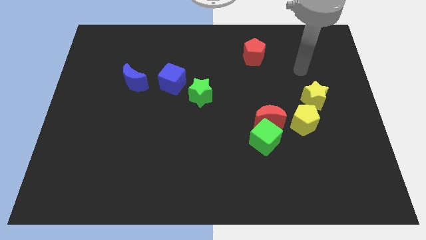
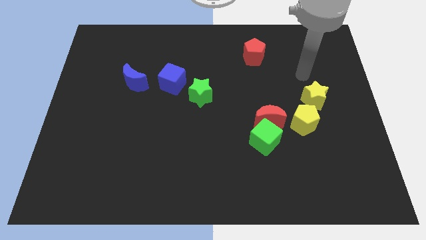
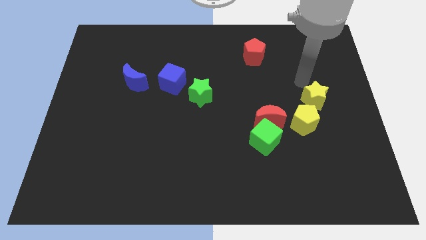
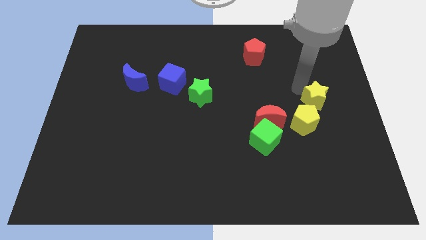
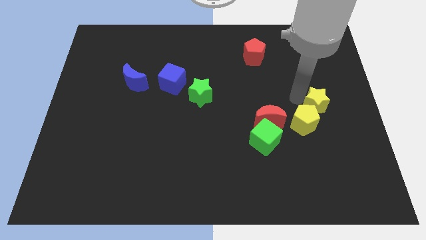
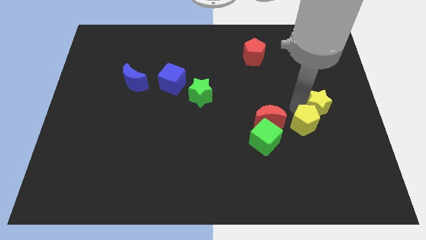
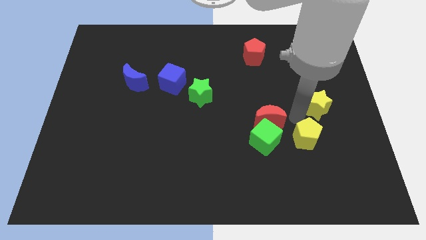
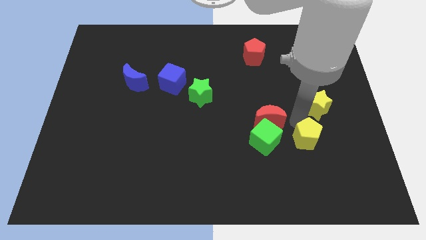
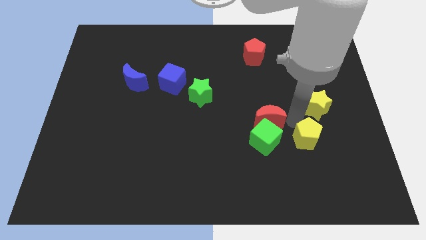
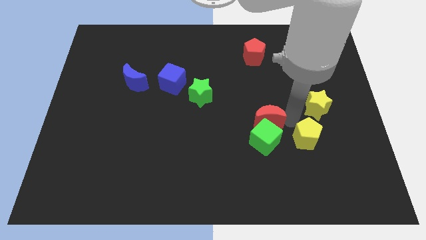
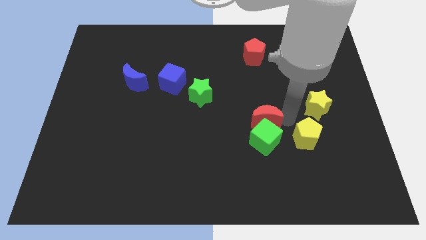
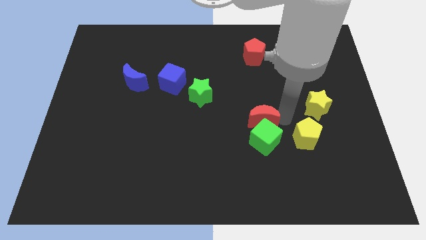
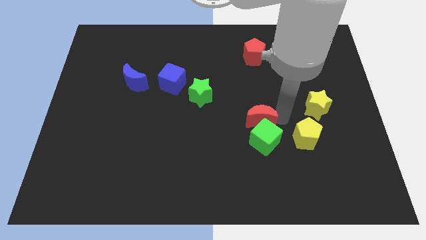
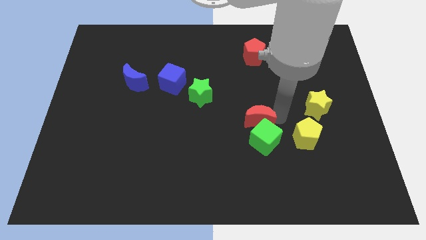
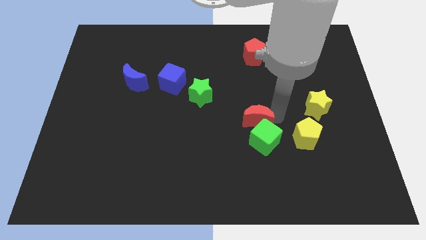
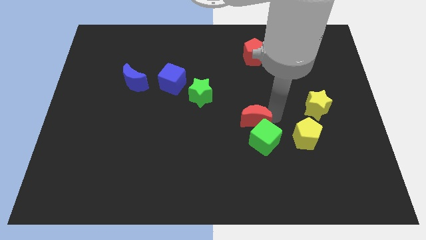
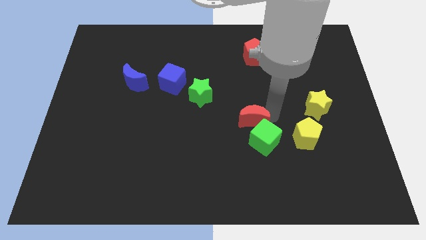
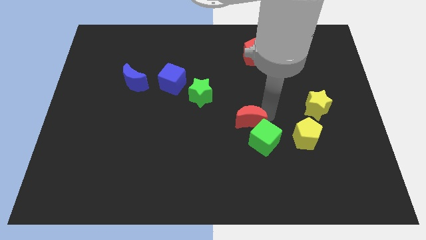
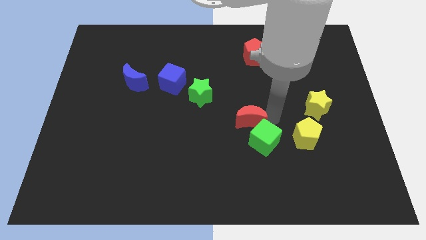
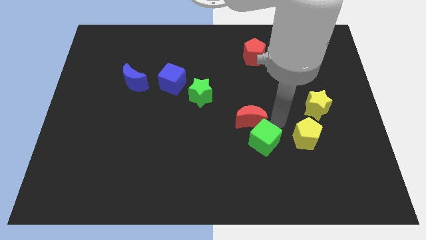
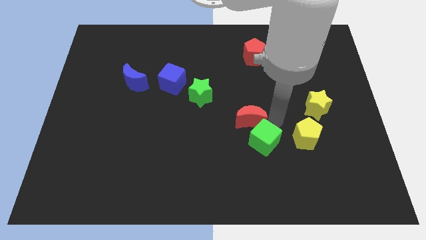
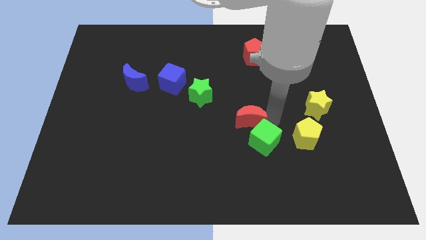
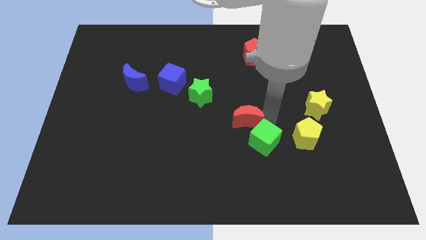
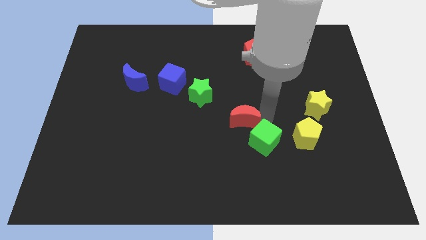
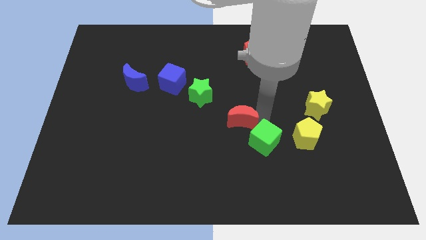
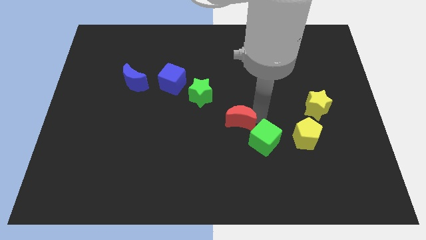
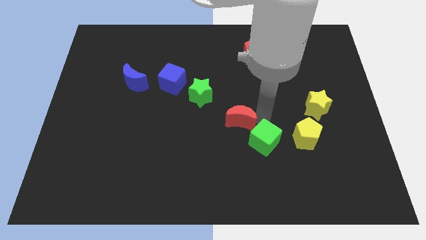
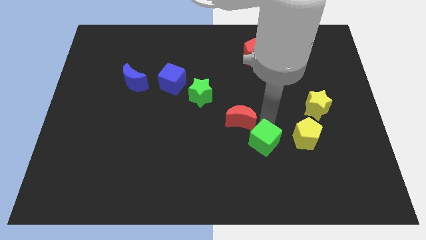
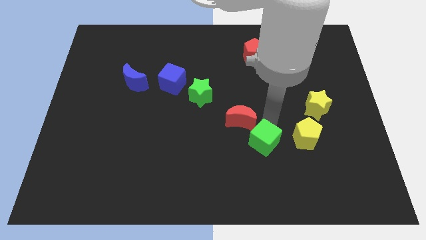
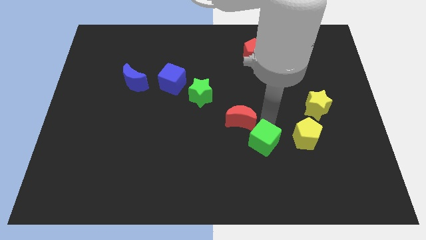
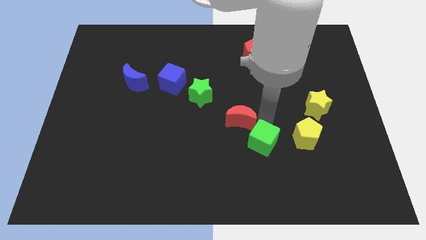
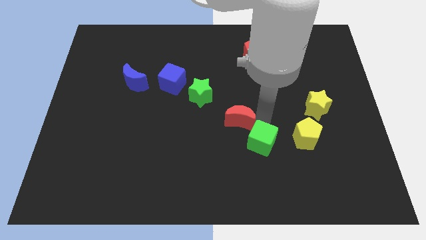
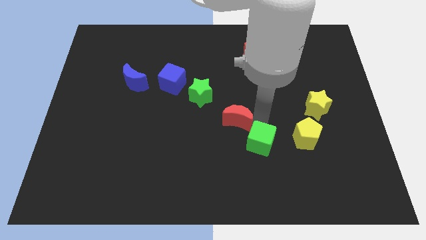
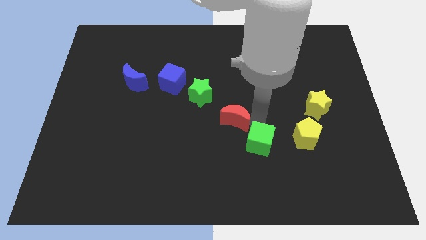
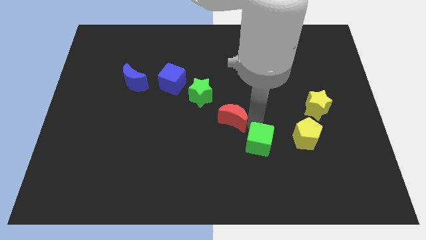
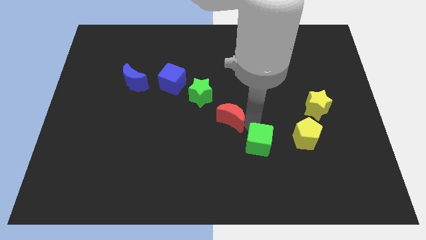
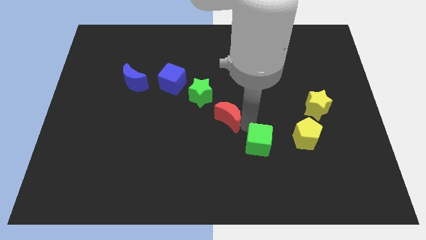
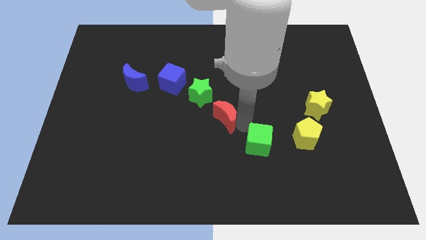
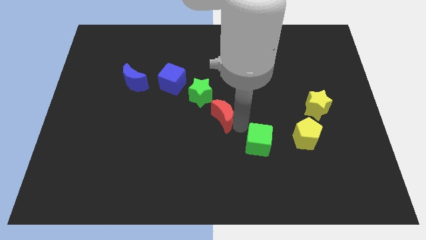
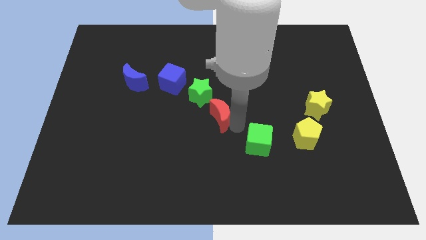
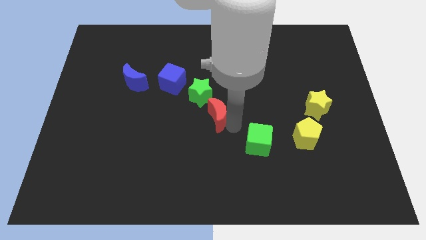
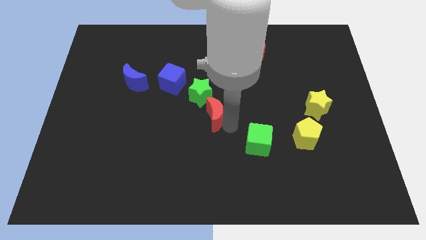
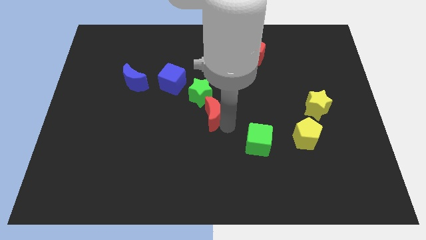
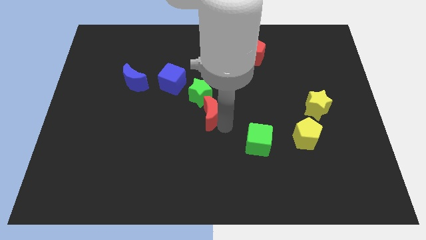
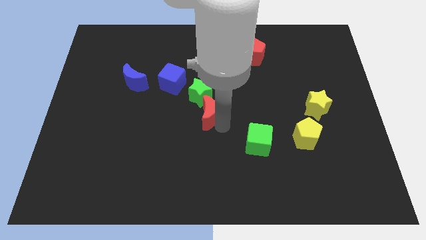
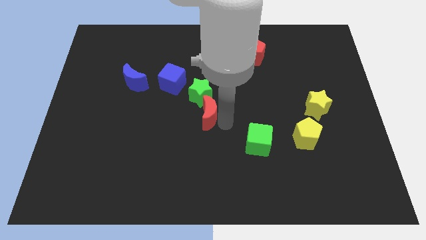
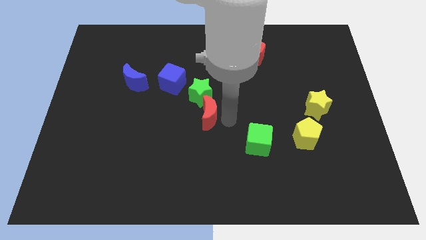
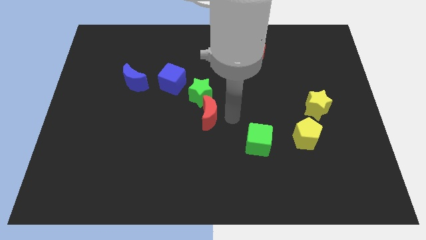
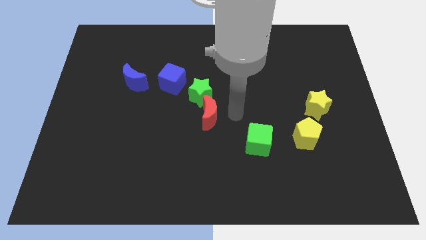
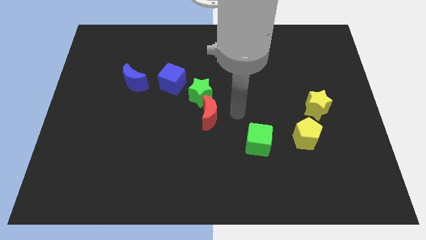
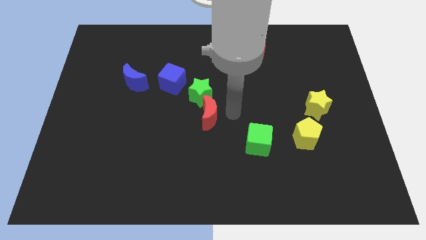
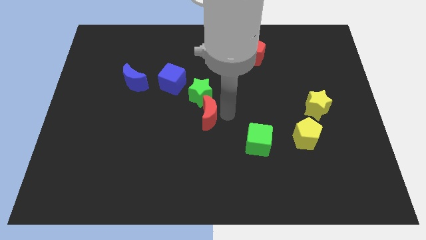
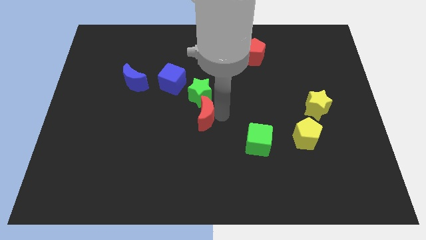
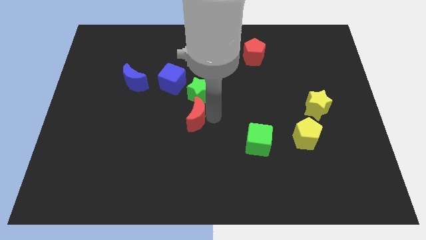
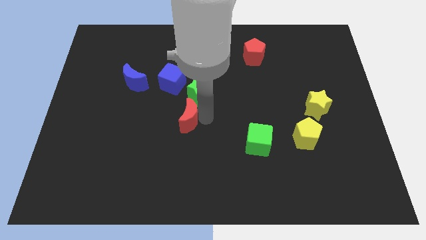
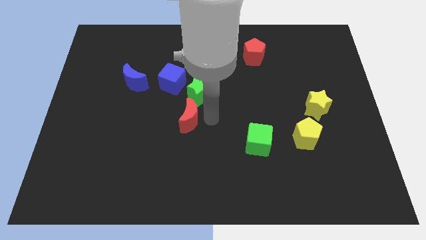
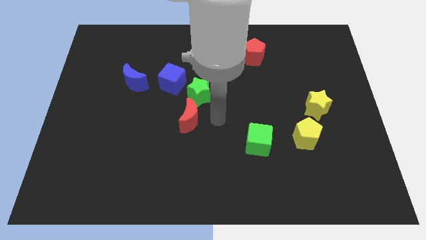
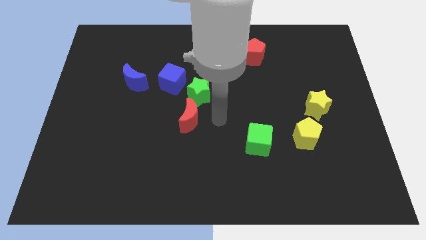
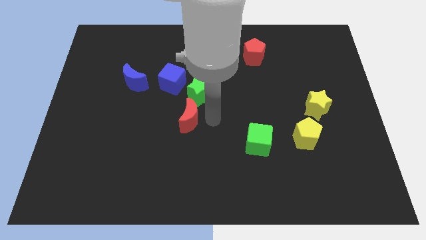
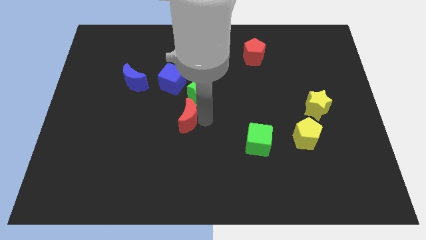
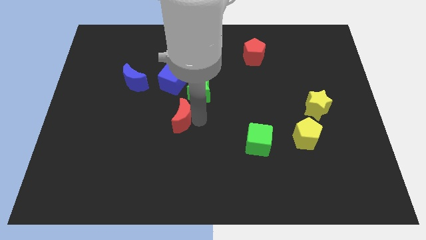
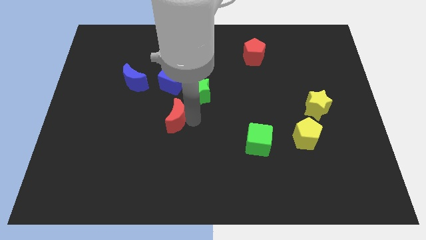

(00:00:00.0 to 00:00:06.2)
slide the red moon left

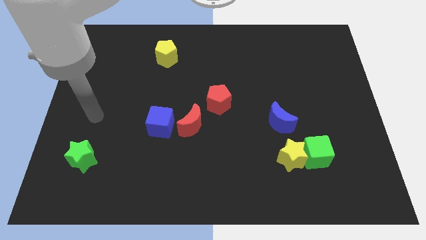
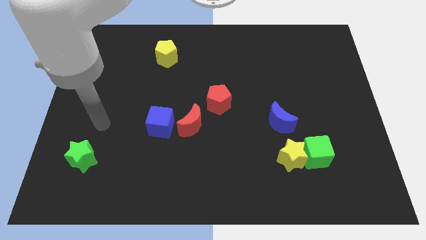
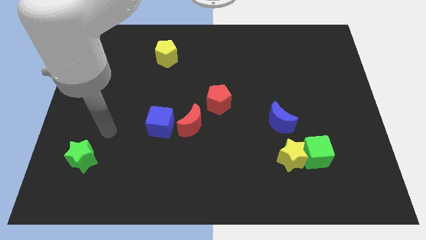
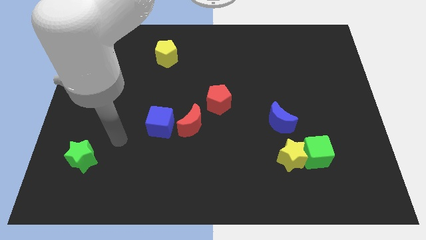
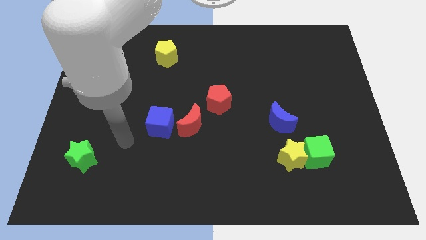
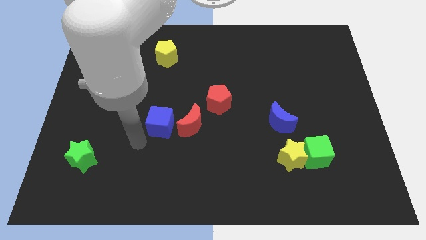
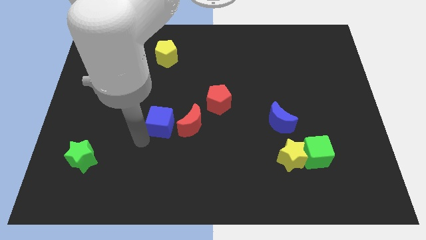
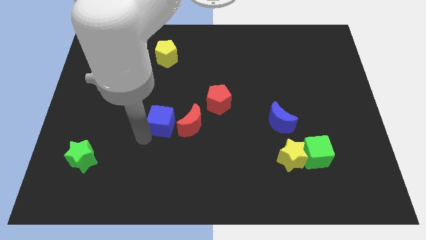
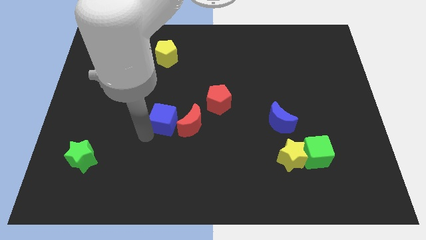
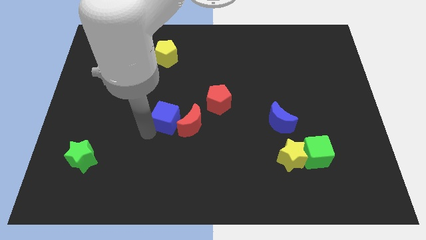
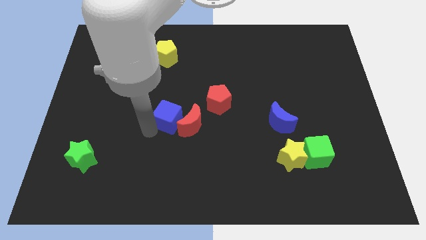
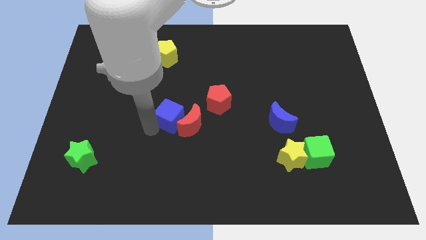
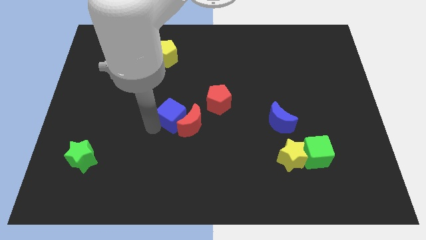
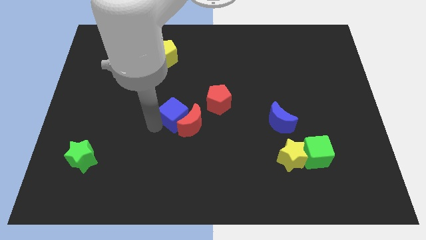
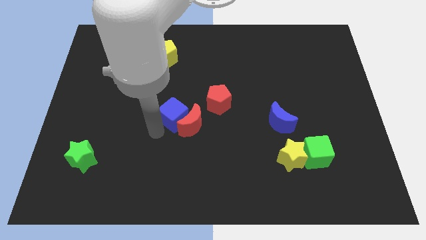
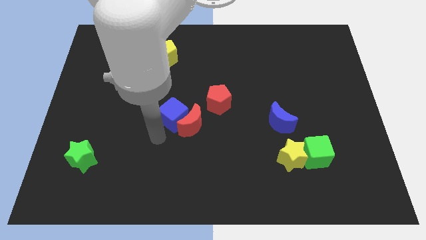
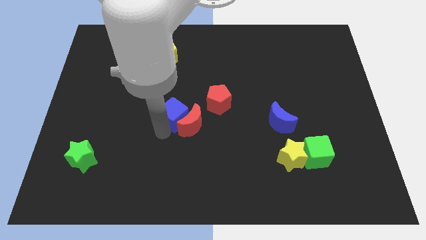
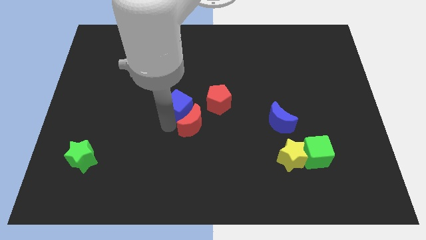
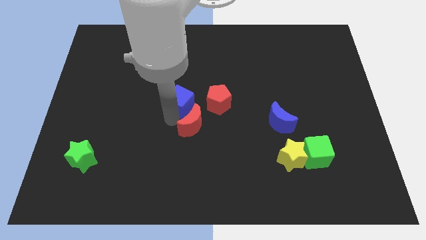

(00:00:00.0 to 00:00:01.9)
move the blue cube upwards and to the right somewhat

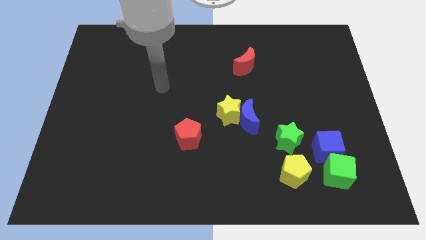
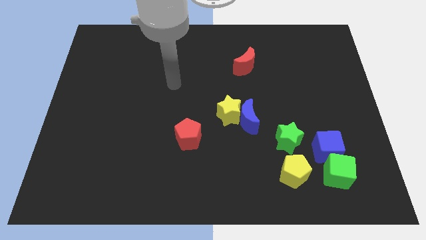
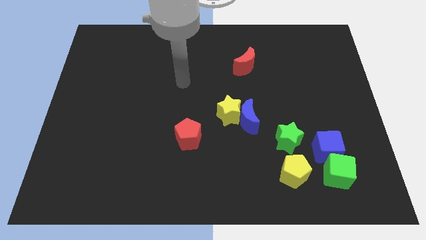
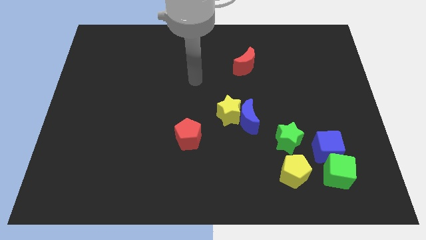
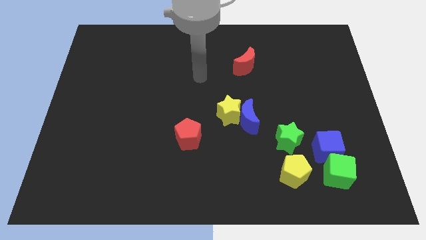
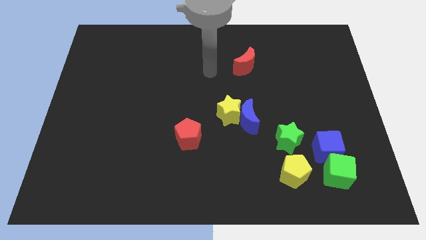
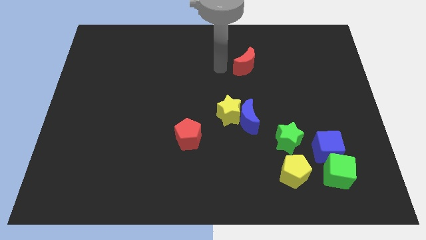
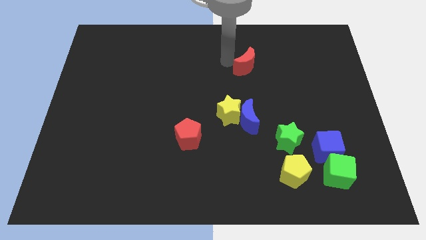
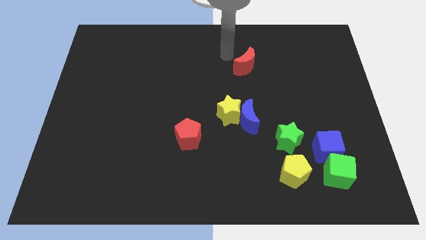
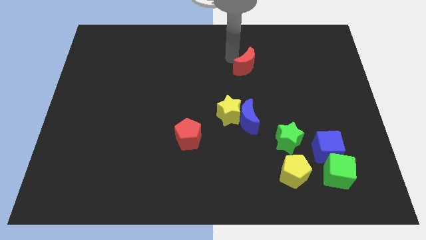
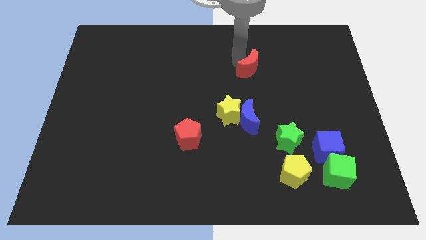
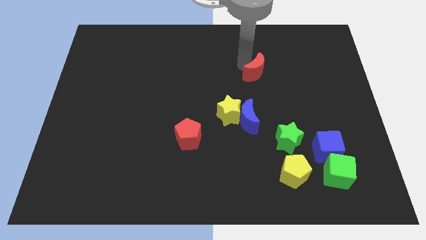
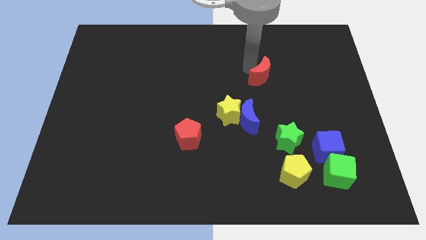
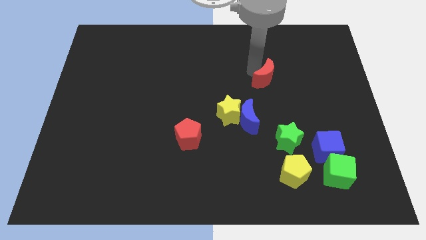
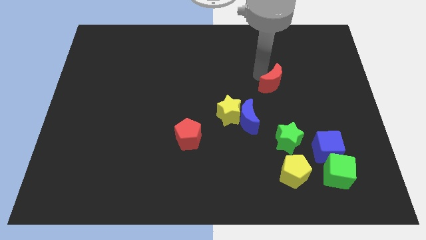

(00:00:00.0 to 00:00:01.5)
move the red moon a little down and to the right
